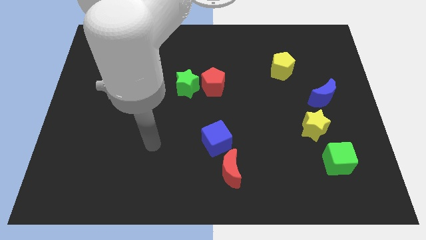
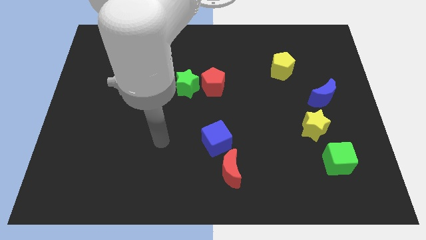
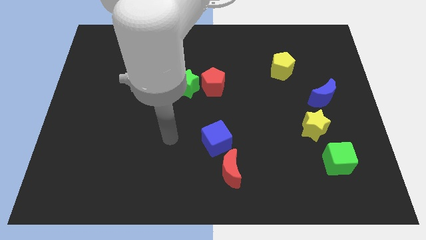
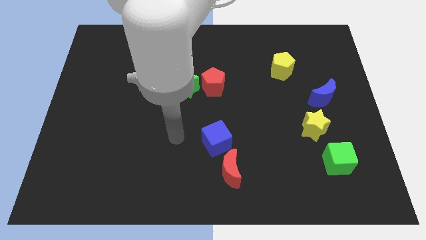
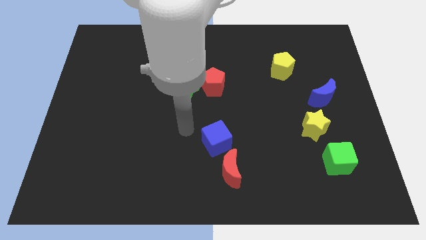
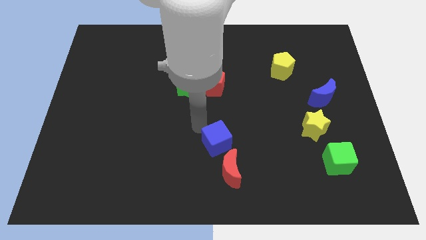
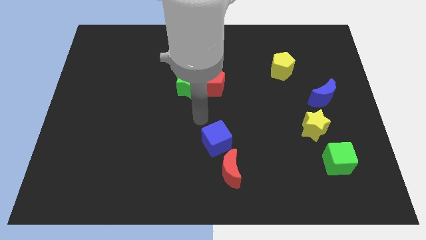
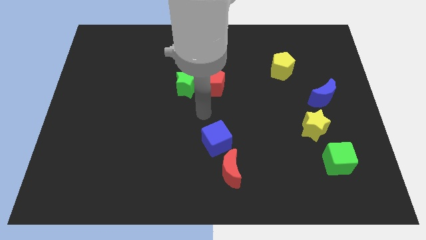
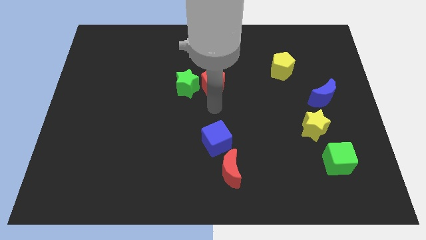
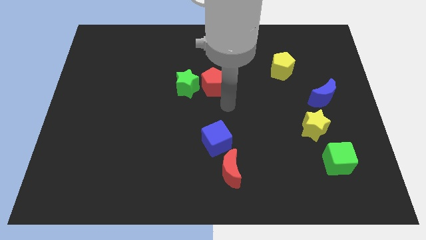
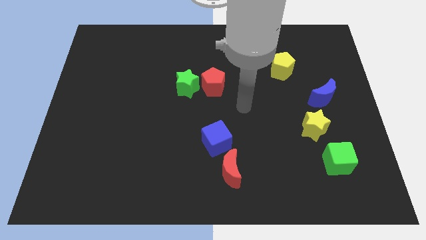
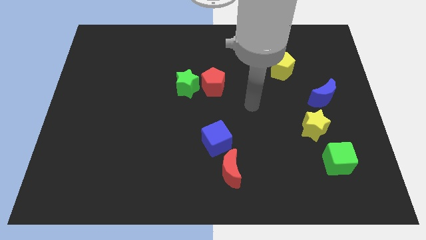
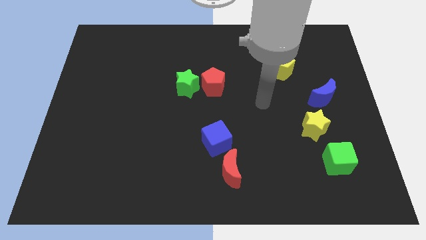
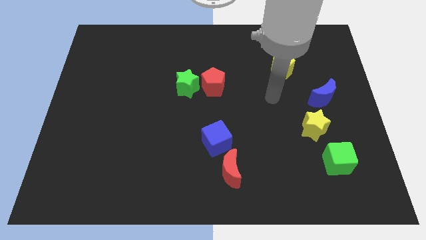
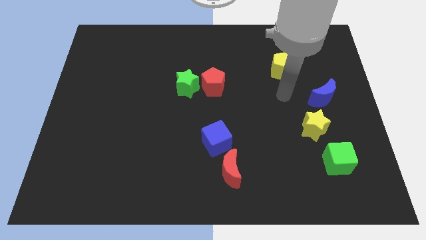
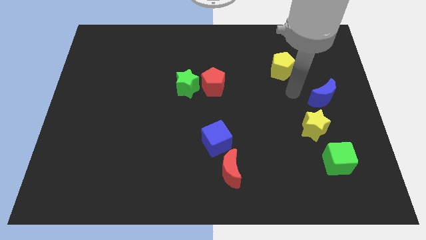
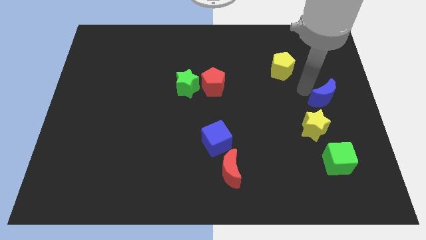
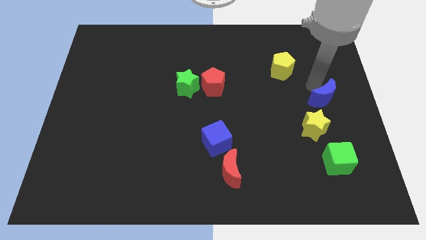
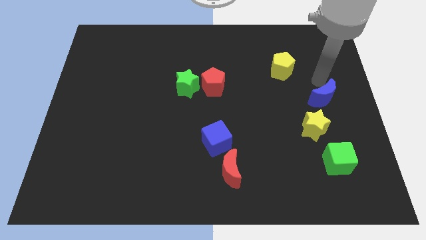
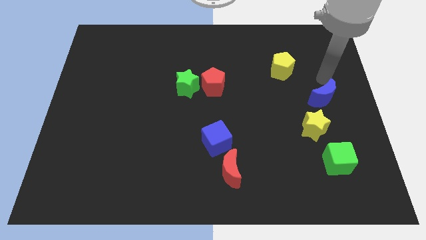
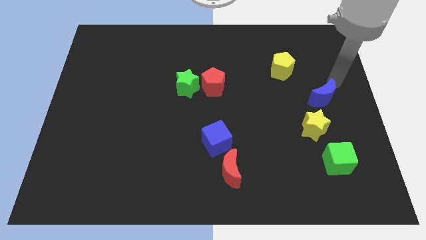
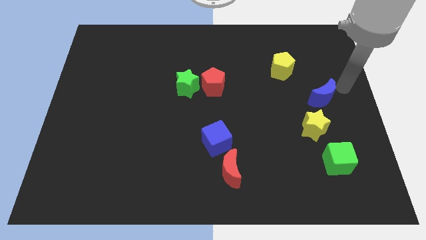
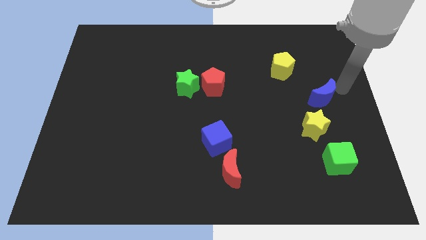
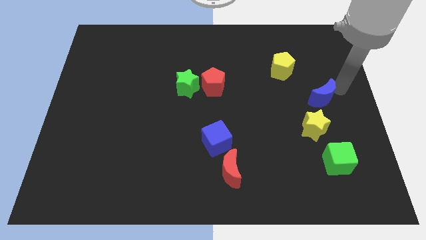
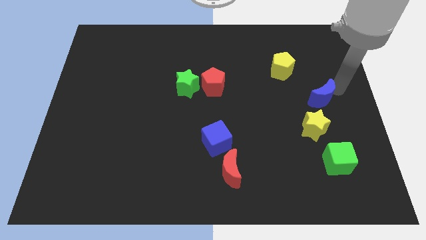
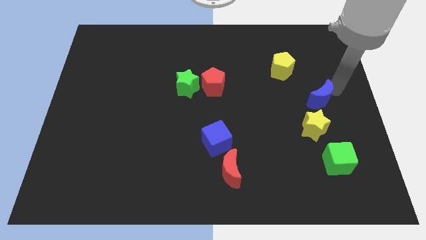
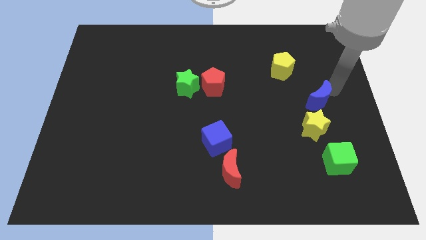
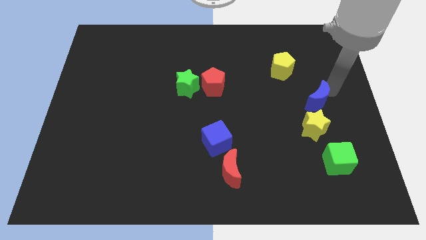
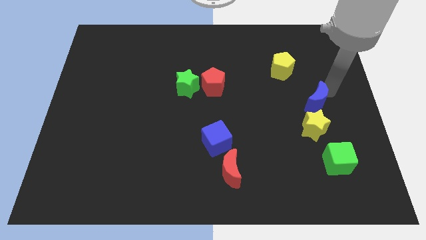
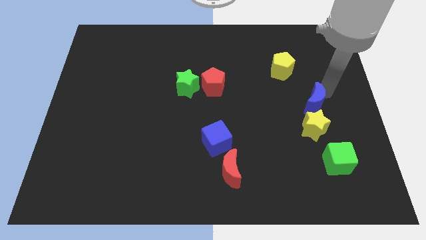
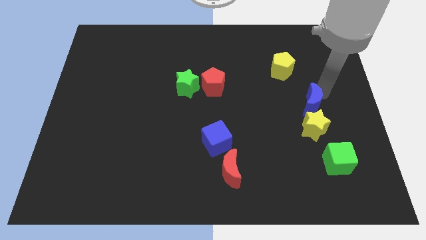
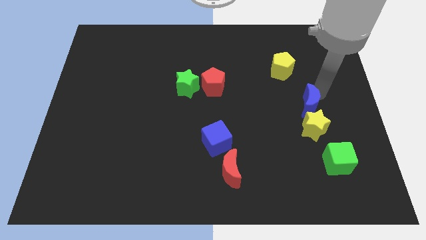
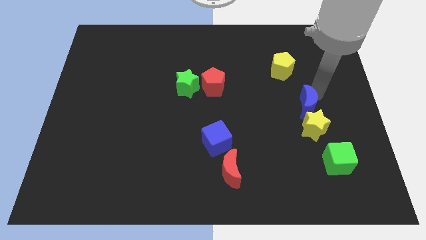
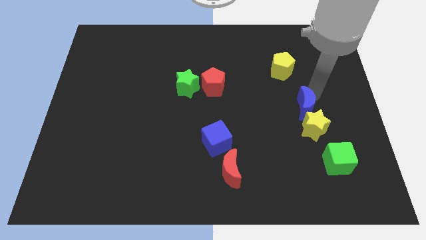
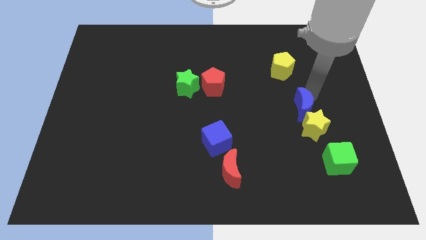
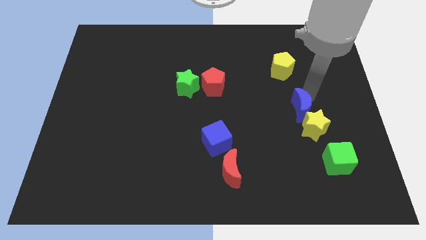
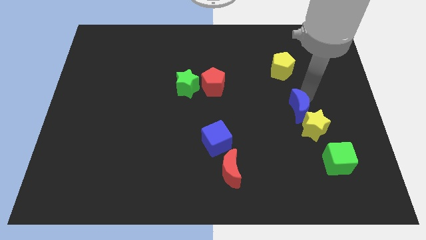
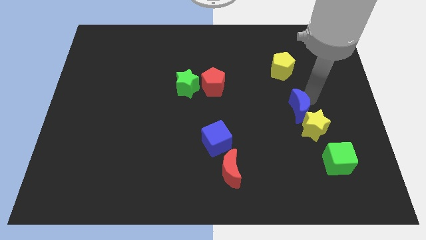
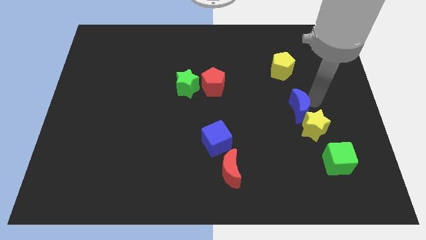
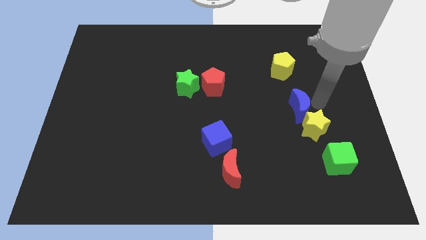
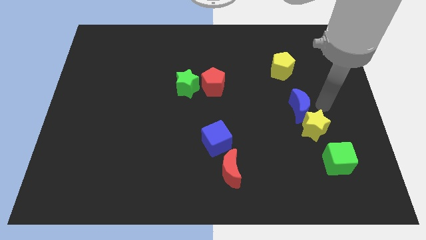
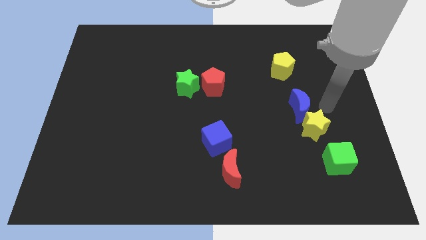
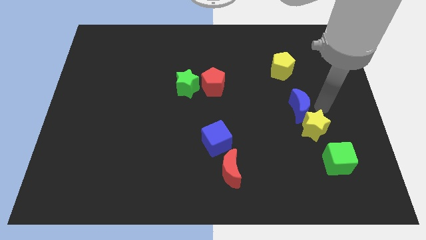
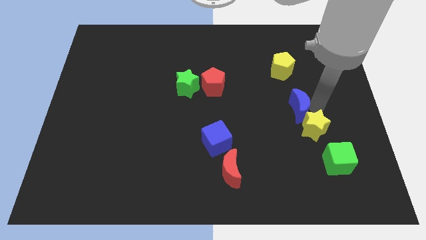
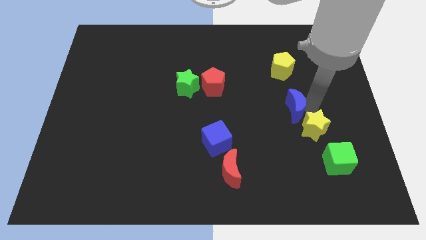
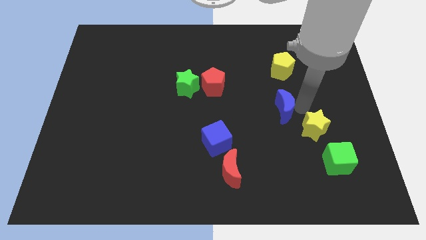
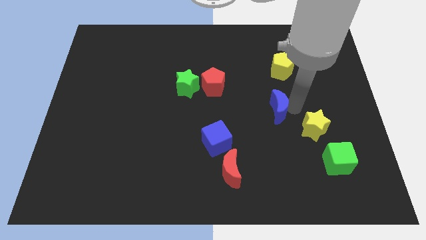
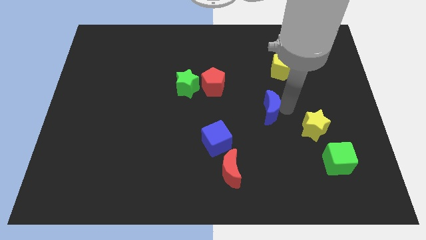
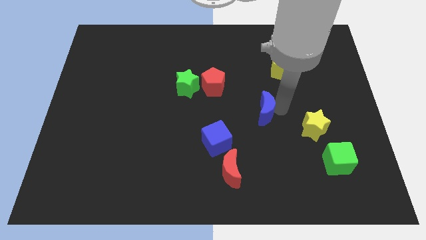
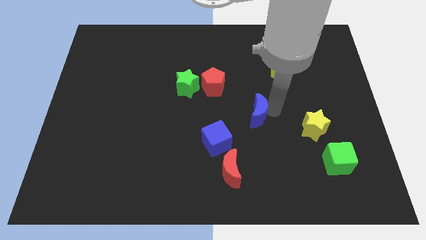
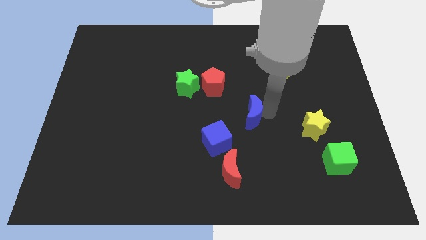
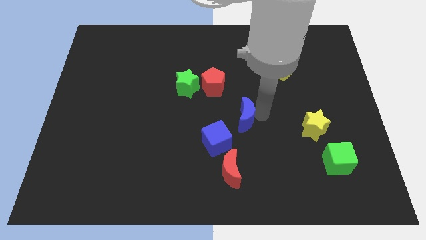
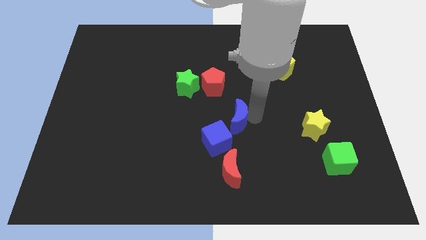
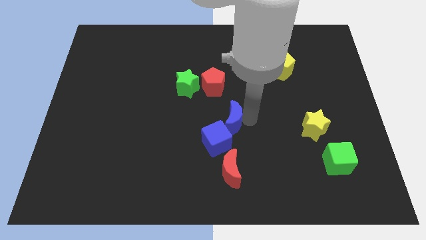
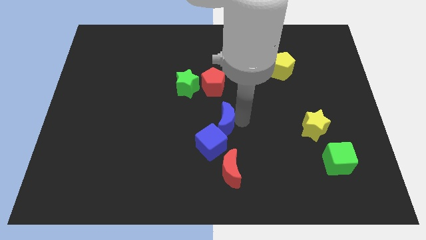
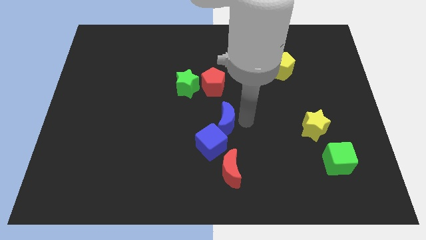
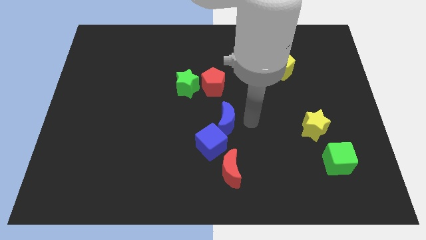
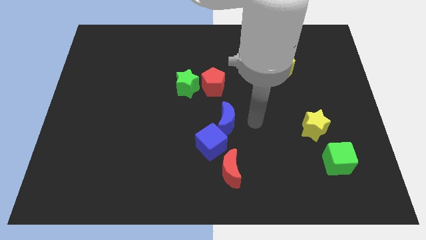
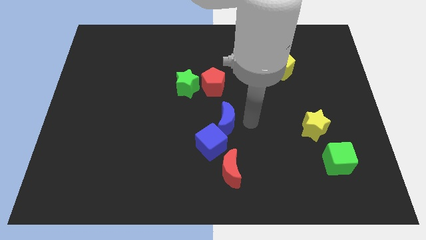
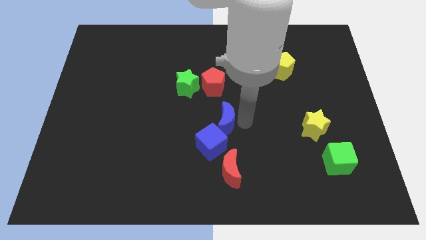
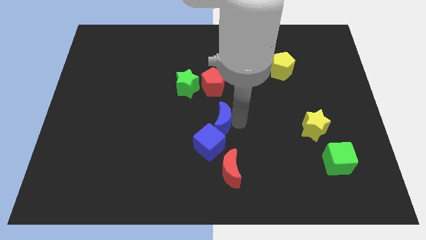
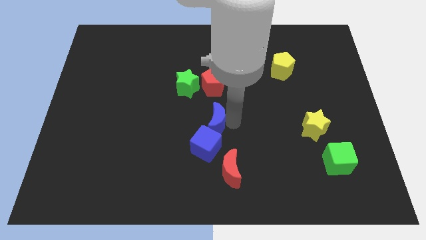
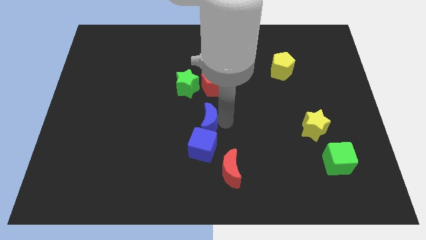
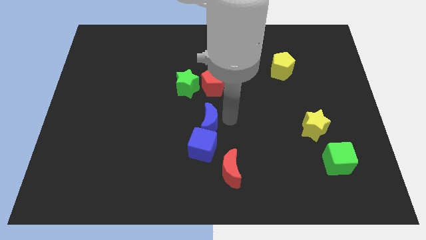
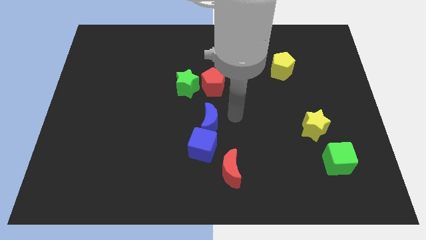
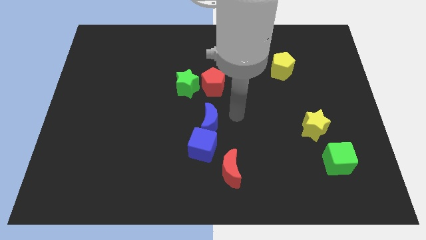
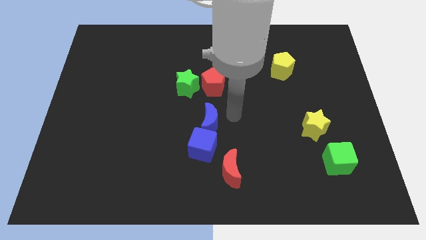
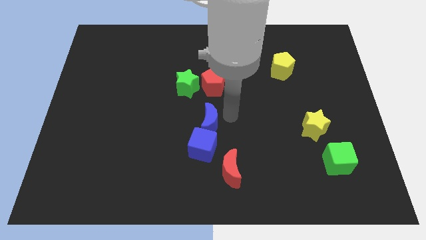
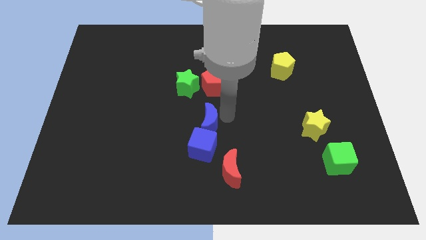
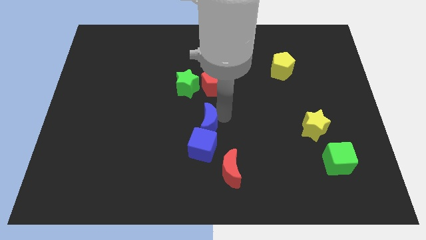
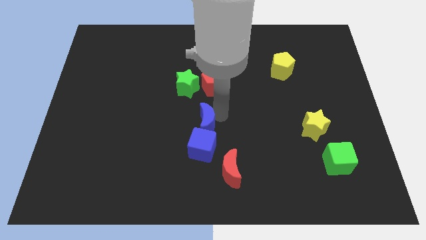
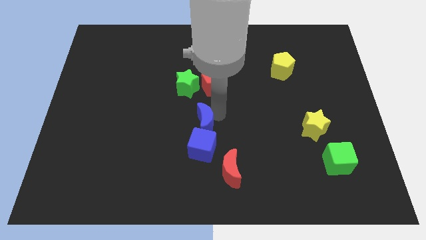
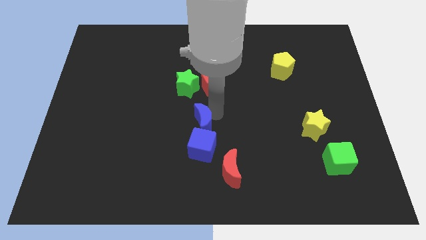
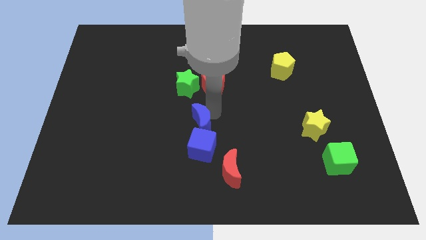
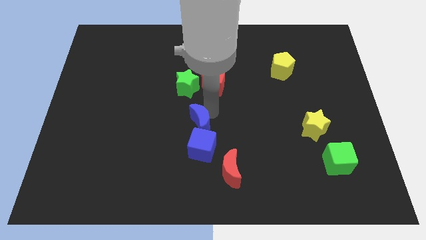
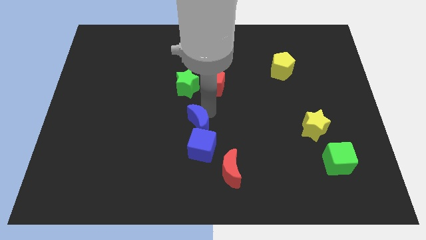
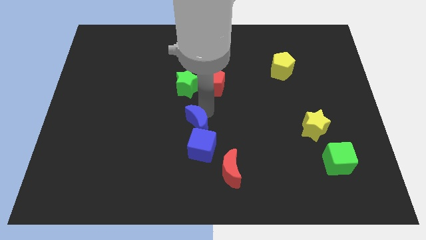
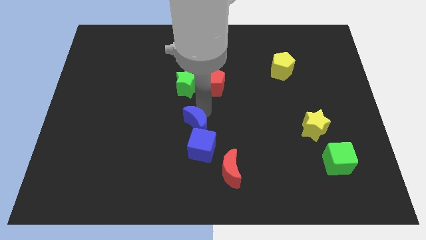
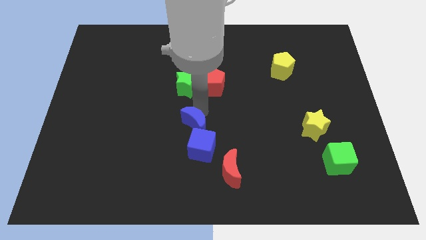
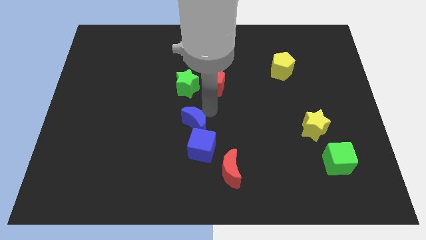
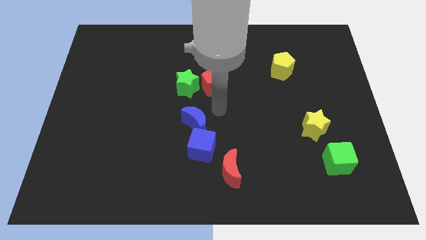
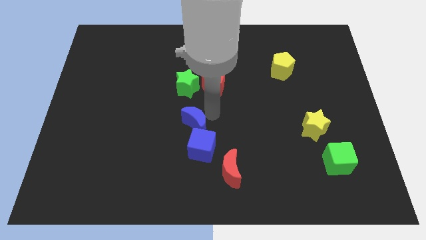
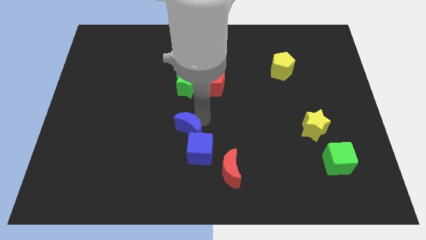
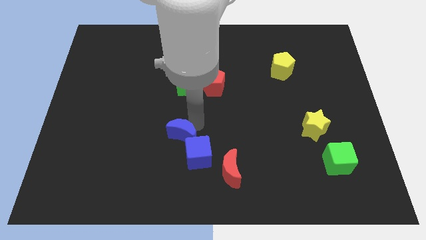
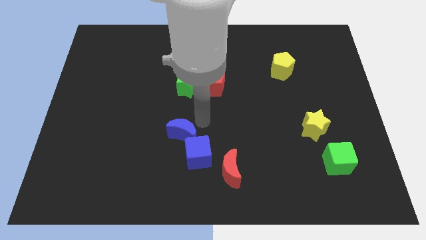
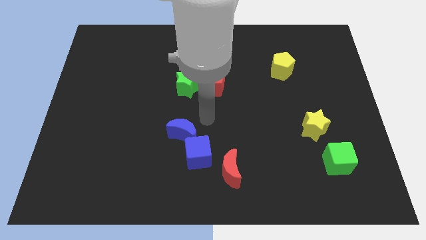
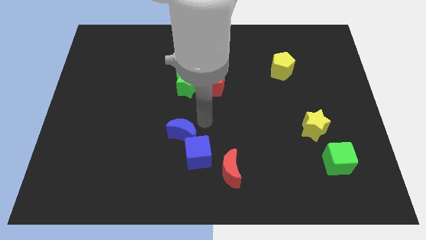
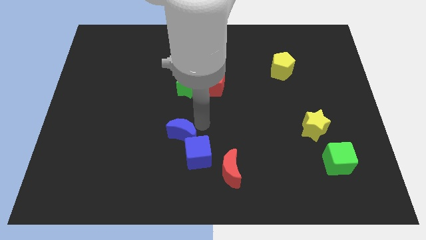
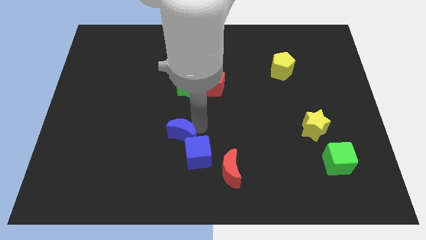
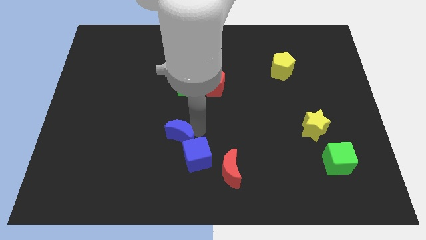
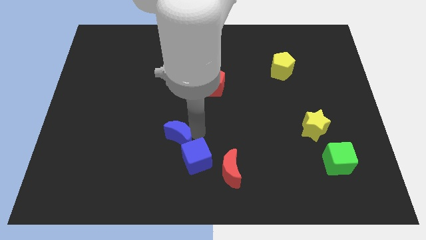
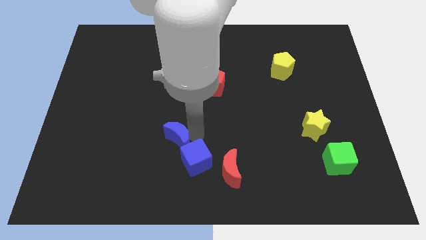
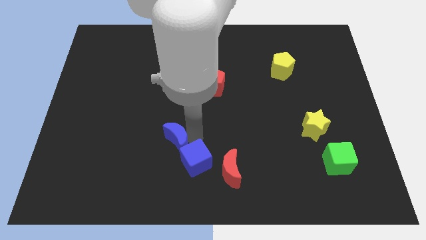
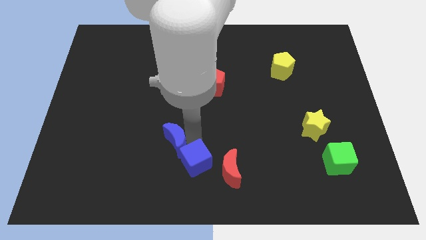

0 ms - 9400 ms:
slide the blue moon to the left side of the blue cube
